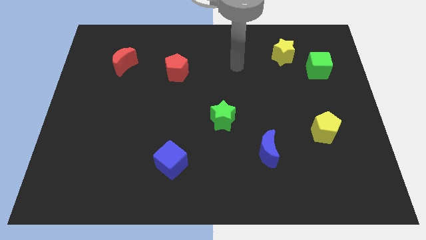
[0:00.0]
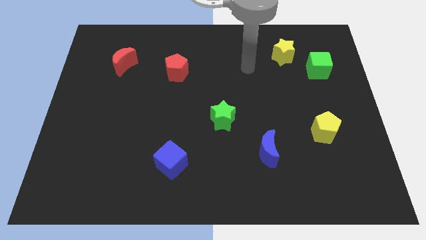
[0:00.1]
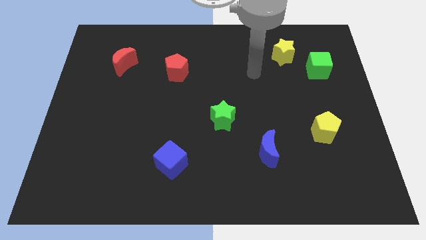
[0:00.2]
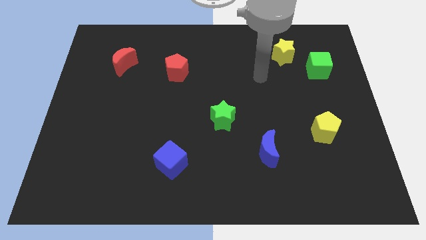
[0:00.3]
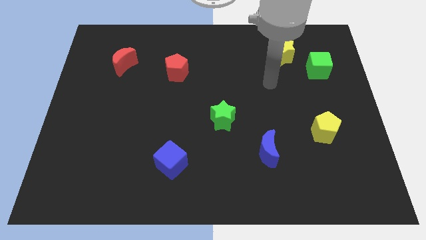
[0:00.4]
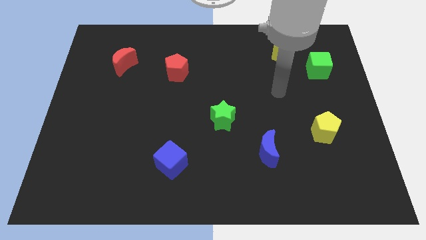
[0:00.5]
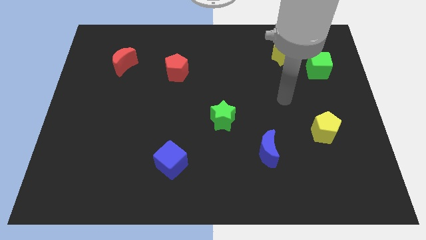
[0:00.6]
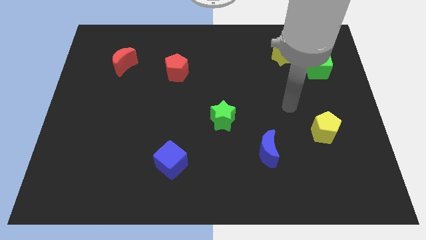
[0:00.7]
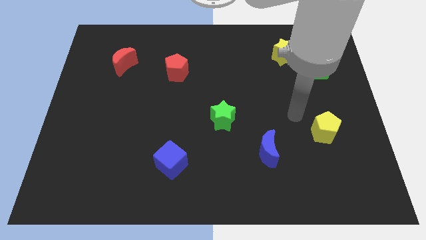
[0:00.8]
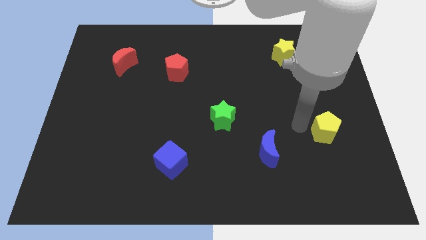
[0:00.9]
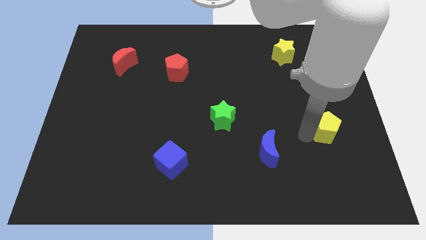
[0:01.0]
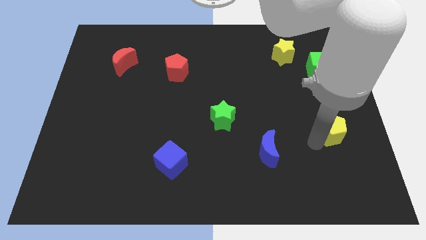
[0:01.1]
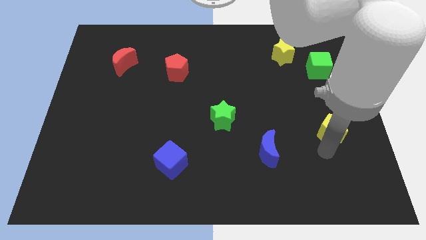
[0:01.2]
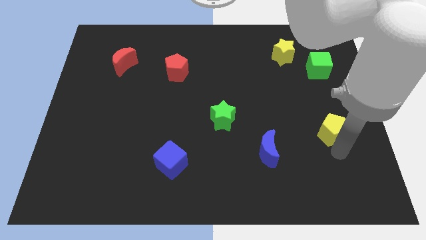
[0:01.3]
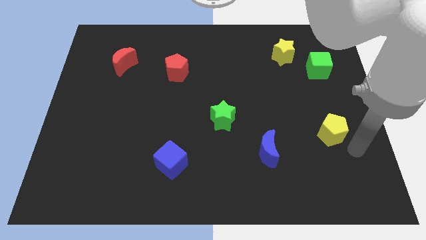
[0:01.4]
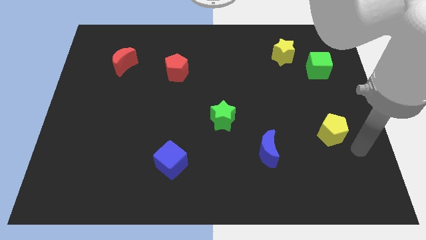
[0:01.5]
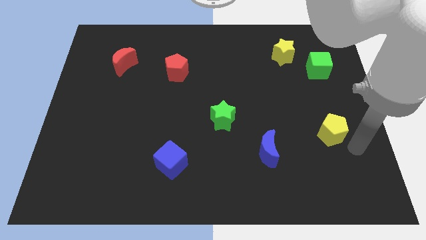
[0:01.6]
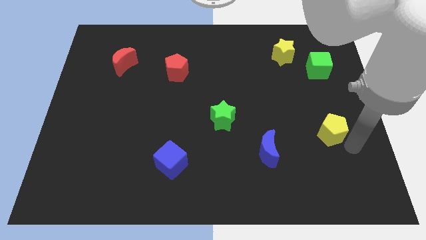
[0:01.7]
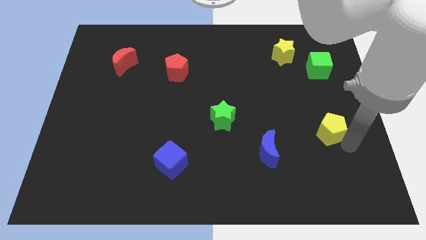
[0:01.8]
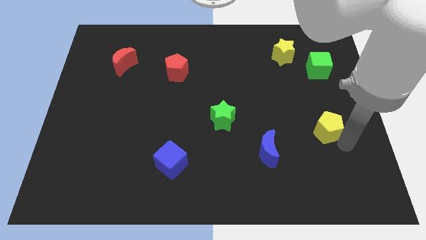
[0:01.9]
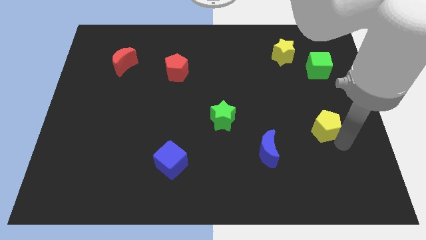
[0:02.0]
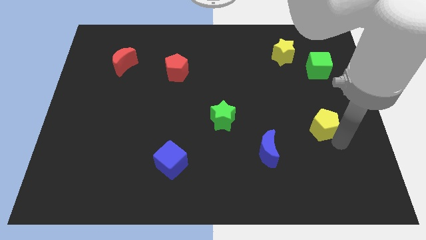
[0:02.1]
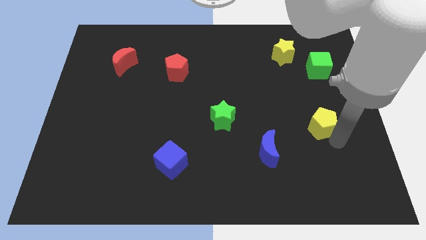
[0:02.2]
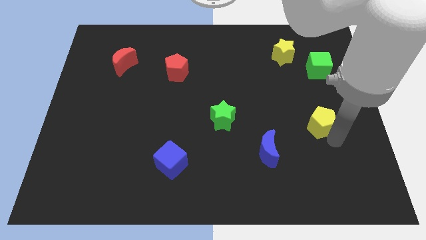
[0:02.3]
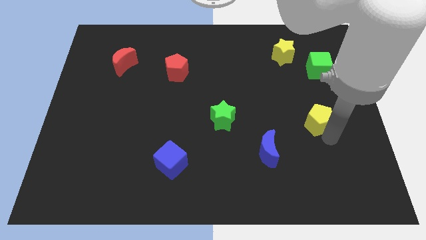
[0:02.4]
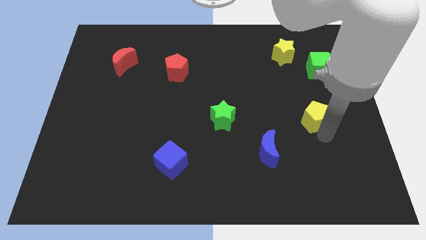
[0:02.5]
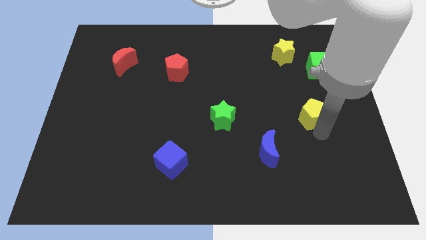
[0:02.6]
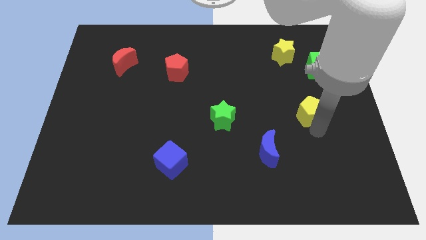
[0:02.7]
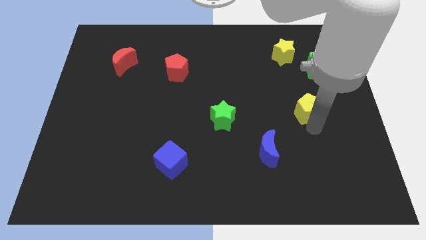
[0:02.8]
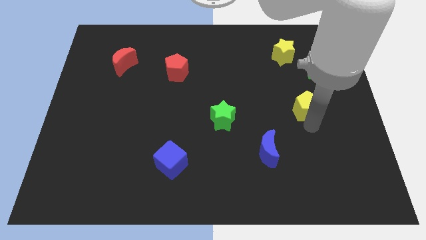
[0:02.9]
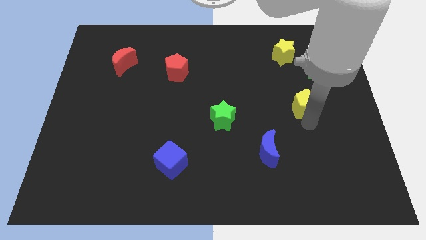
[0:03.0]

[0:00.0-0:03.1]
slightly slide the yellow pentagon upwards and to the left

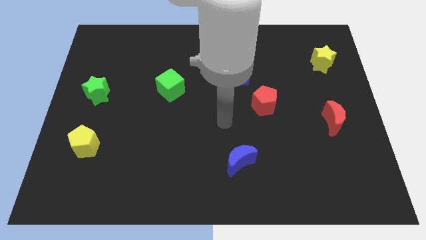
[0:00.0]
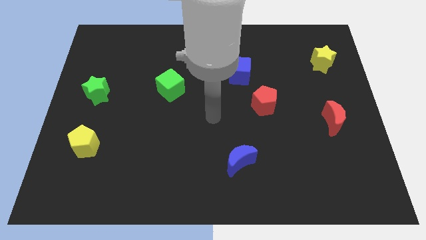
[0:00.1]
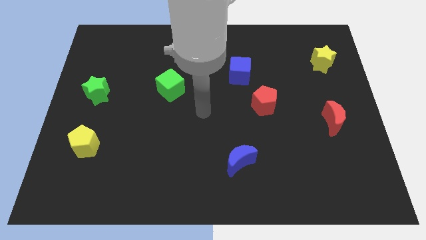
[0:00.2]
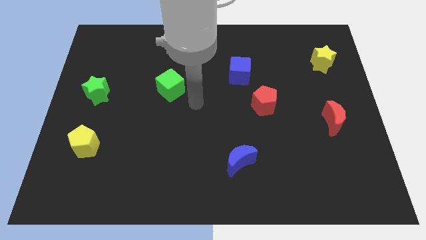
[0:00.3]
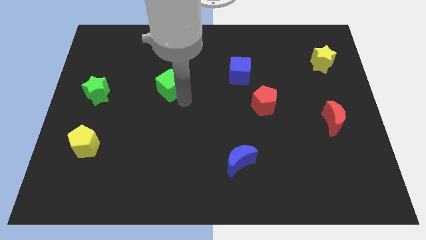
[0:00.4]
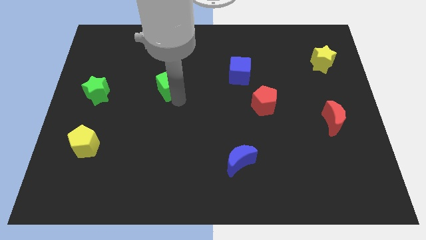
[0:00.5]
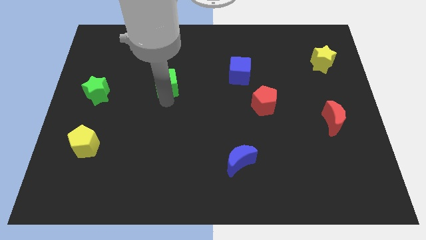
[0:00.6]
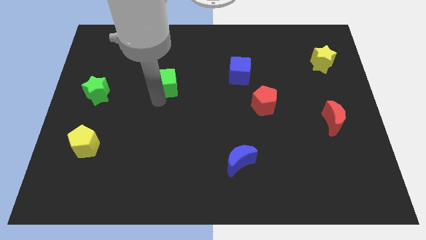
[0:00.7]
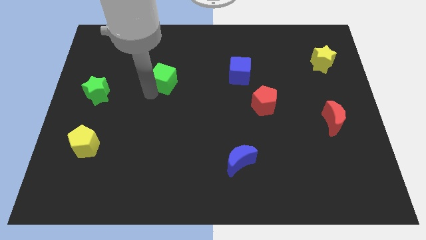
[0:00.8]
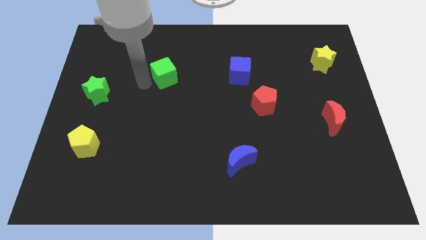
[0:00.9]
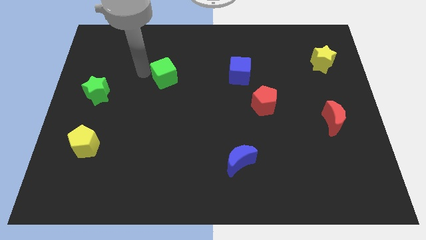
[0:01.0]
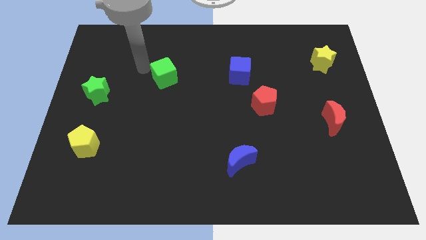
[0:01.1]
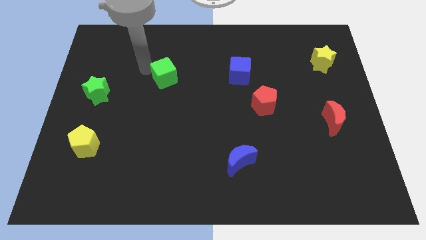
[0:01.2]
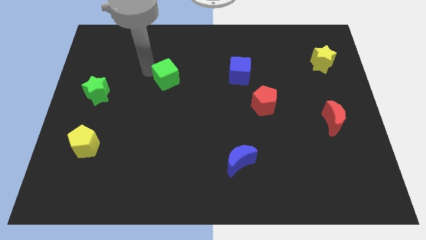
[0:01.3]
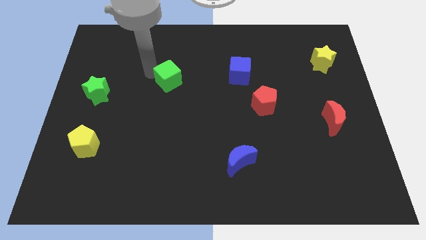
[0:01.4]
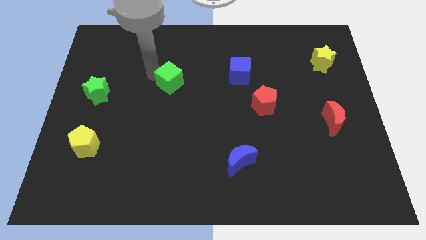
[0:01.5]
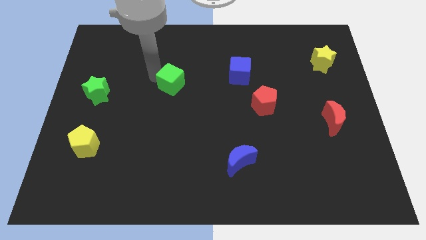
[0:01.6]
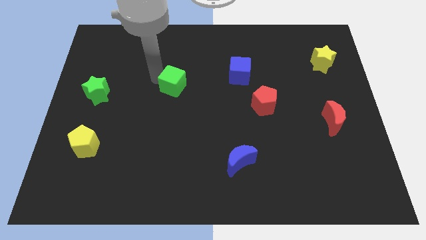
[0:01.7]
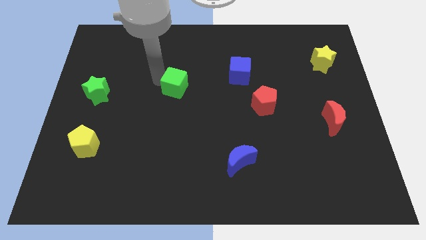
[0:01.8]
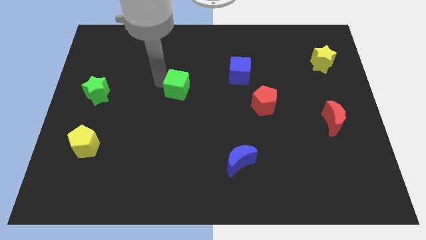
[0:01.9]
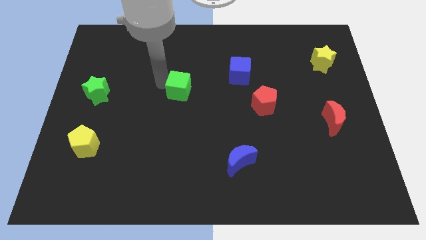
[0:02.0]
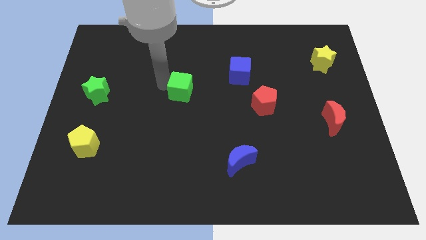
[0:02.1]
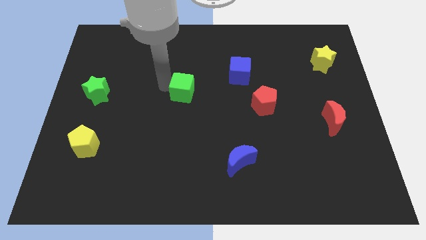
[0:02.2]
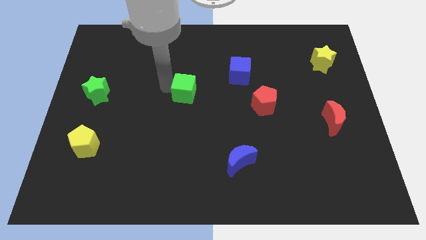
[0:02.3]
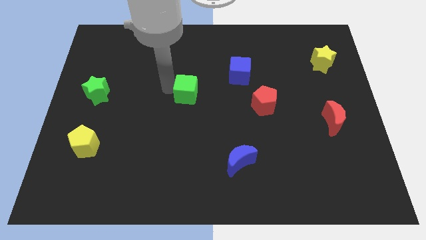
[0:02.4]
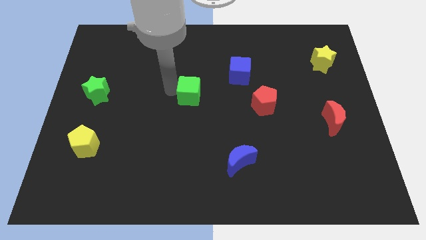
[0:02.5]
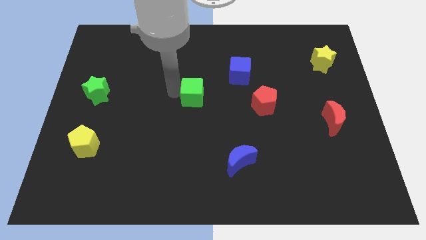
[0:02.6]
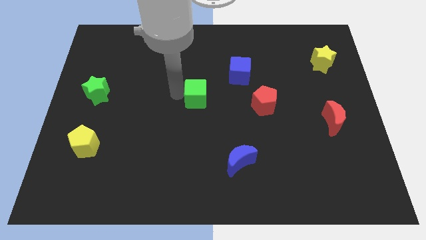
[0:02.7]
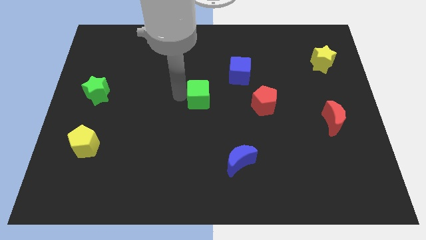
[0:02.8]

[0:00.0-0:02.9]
push the green cube right a bit

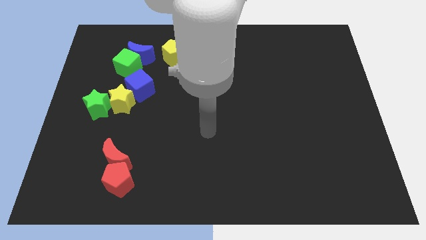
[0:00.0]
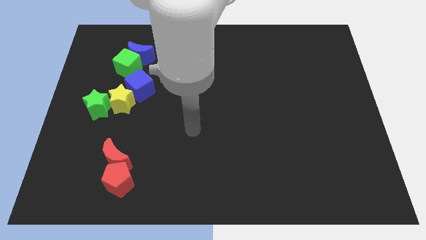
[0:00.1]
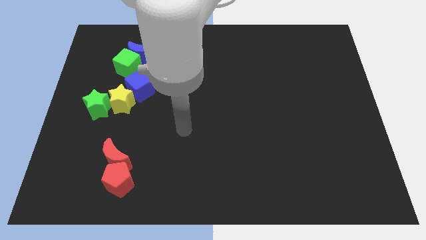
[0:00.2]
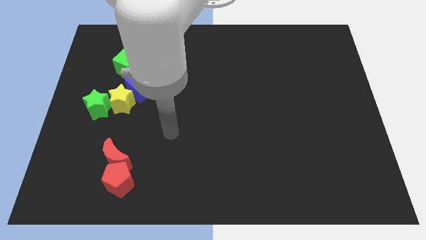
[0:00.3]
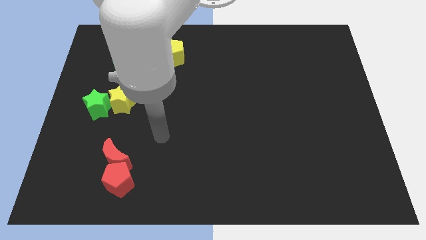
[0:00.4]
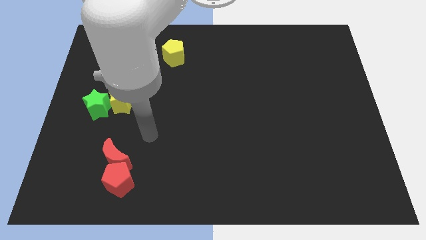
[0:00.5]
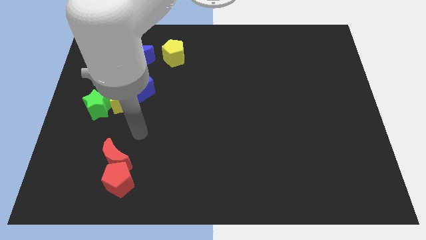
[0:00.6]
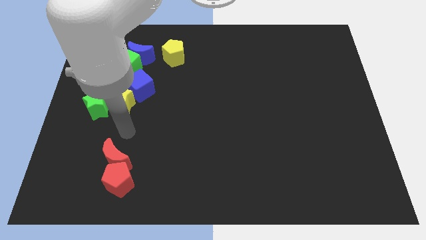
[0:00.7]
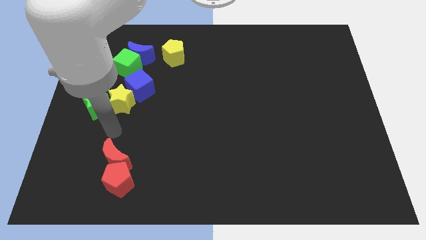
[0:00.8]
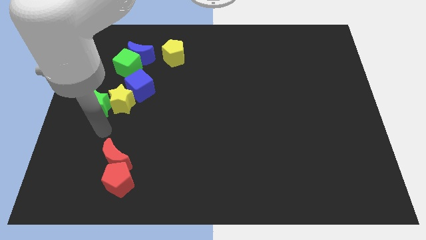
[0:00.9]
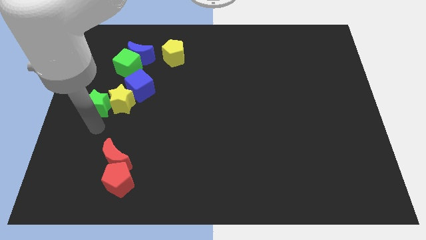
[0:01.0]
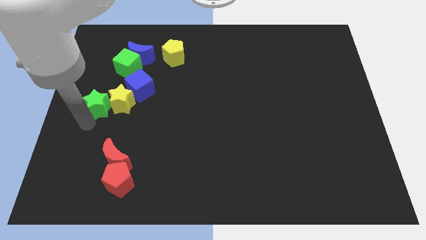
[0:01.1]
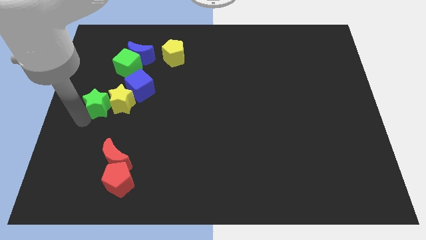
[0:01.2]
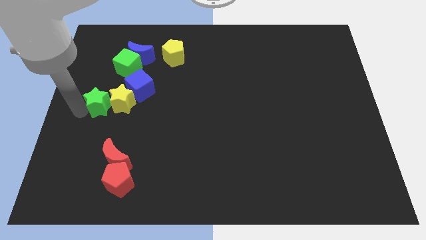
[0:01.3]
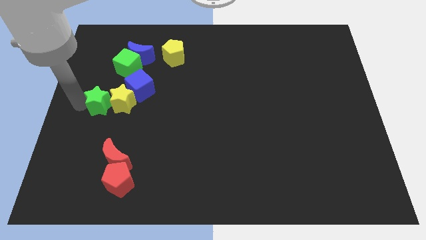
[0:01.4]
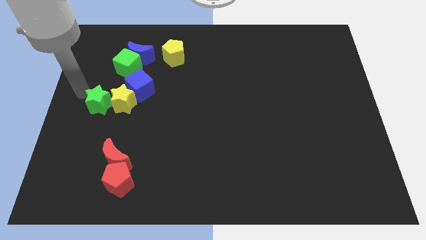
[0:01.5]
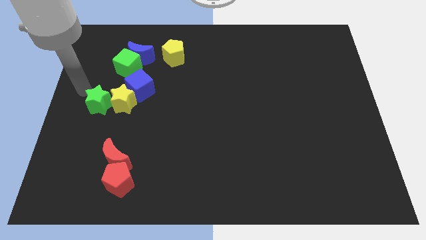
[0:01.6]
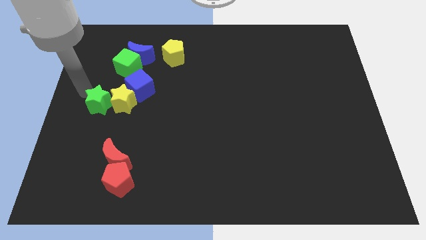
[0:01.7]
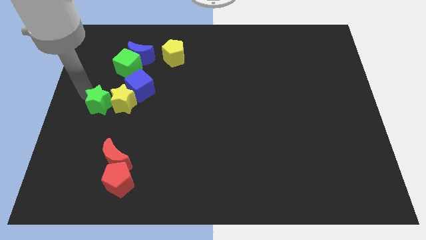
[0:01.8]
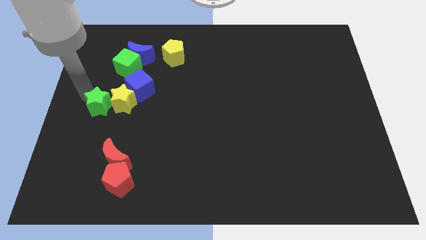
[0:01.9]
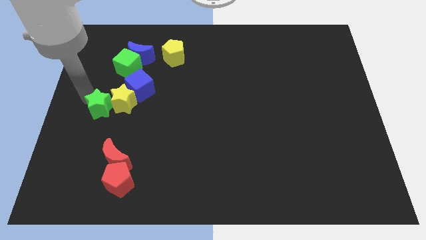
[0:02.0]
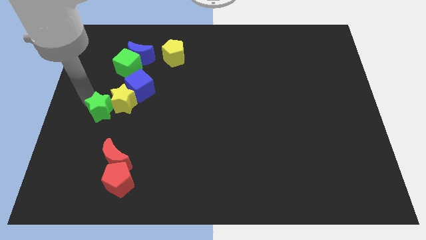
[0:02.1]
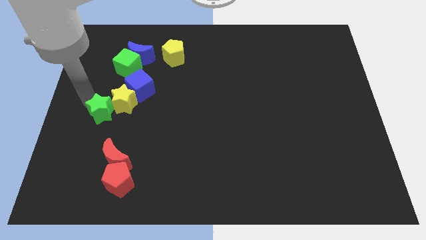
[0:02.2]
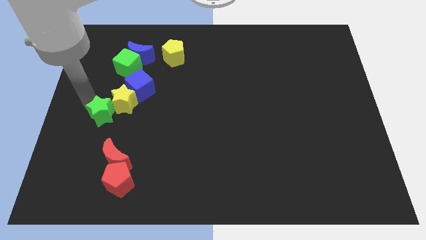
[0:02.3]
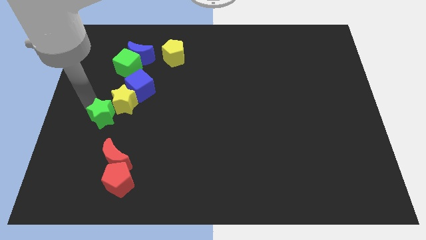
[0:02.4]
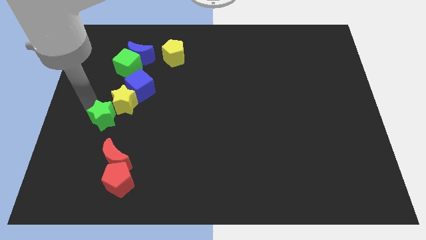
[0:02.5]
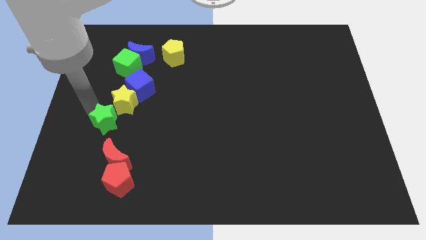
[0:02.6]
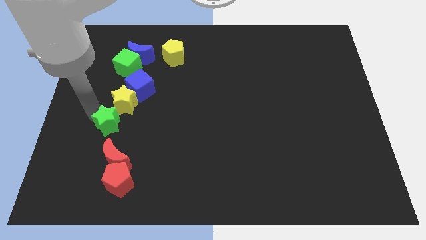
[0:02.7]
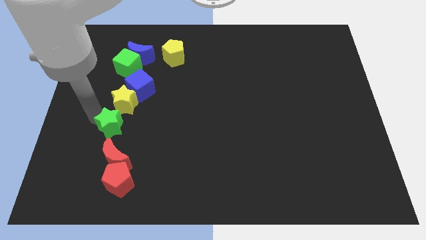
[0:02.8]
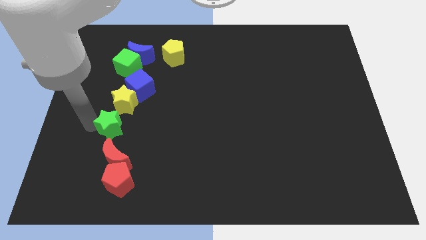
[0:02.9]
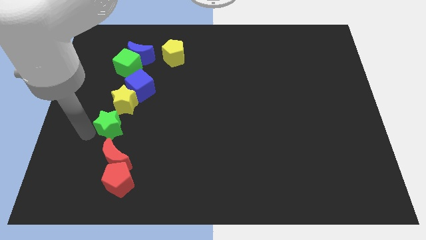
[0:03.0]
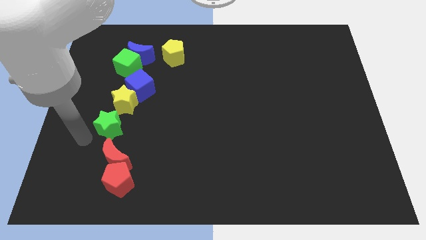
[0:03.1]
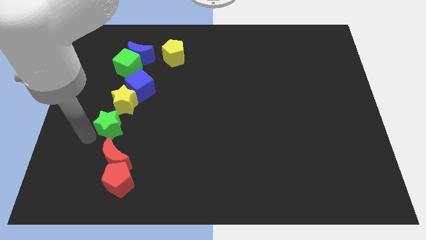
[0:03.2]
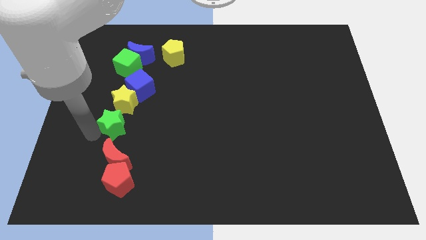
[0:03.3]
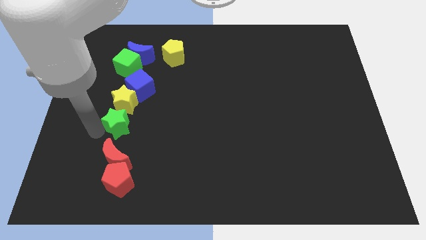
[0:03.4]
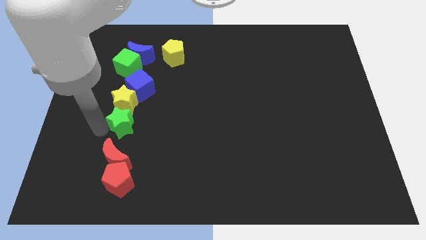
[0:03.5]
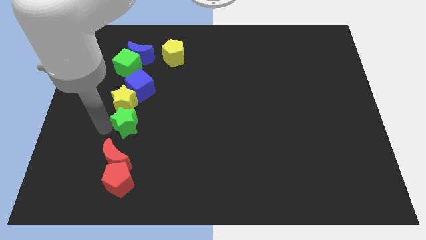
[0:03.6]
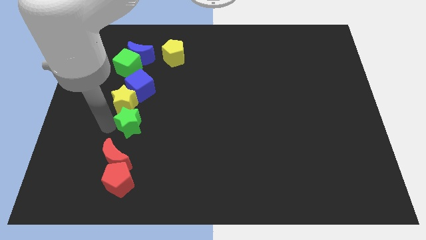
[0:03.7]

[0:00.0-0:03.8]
slightly push the green star to the right
